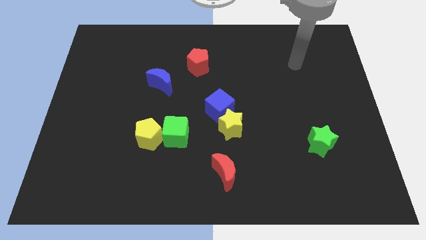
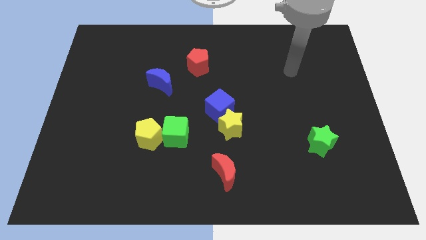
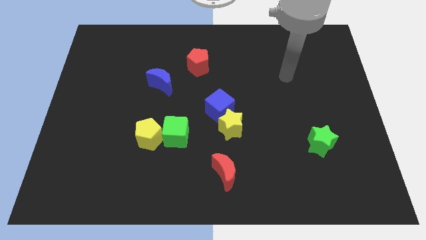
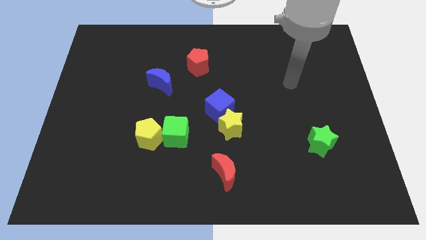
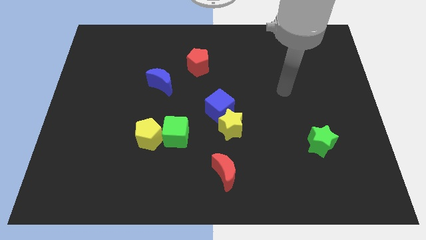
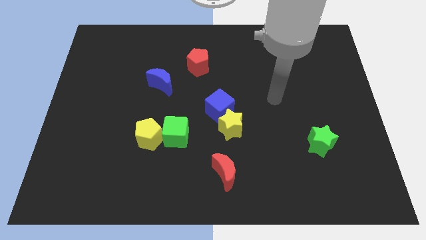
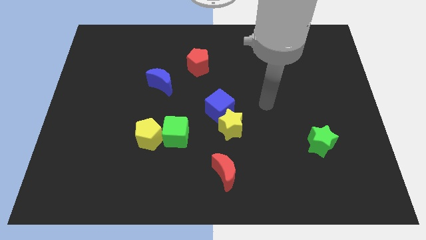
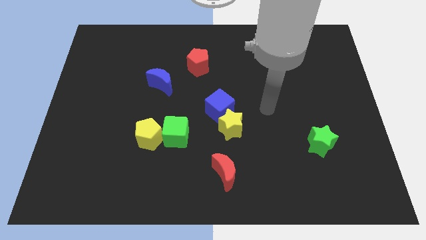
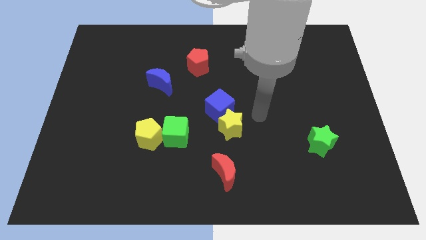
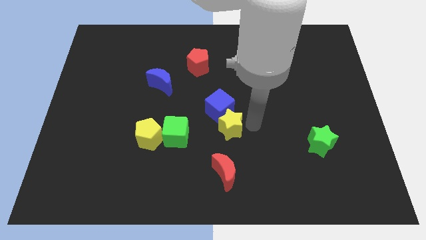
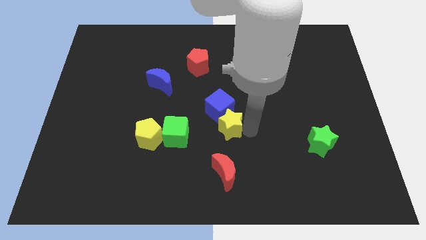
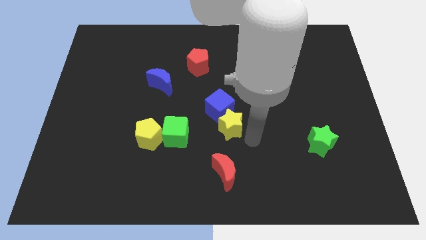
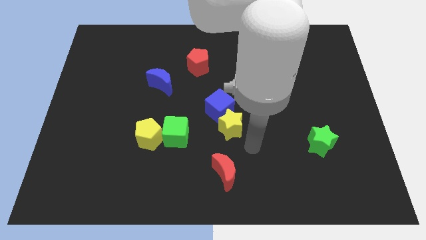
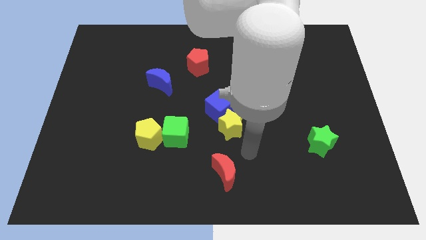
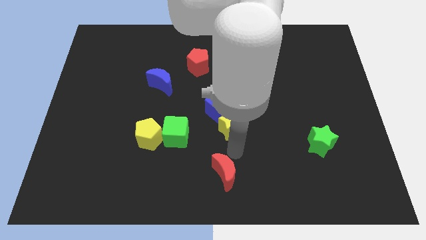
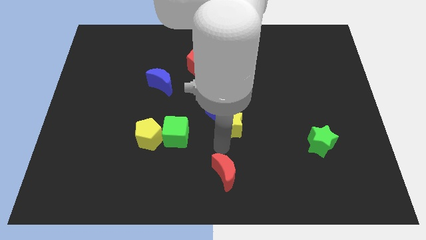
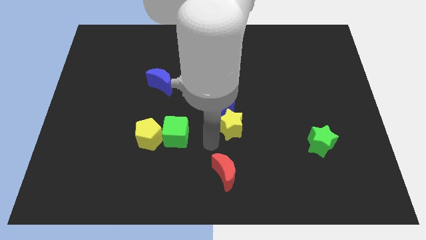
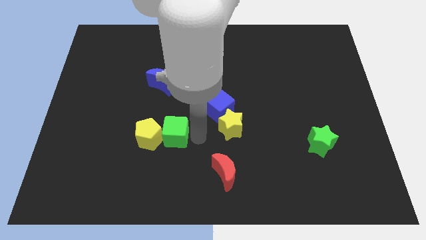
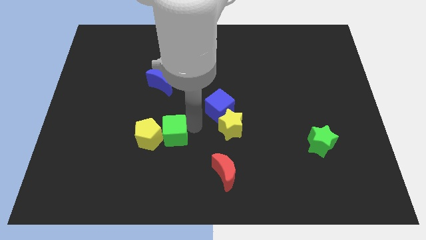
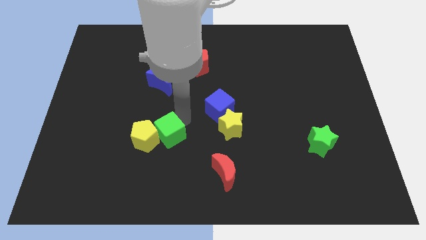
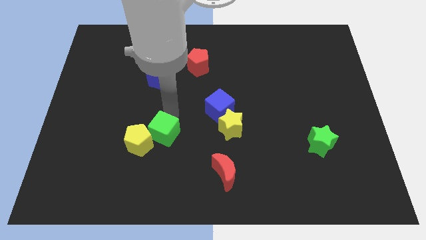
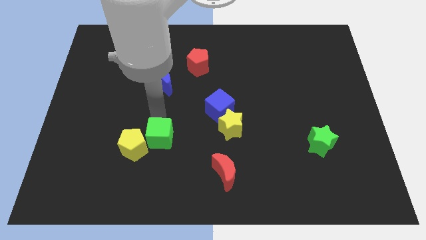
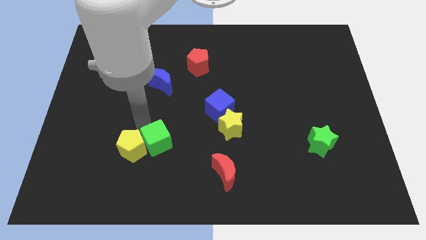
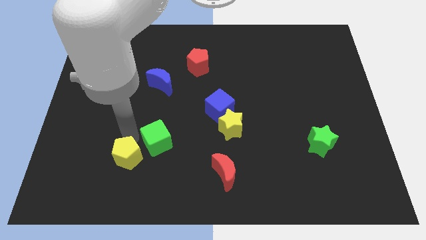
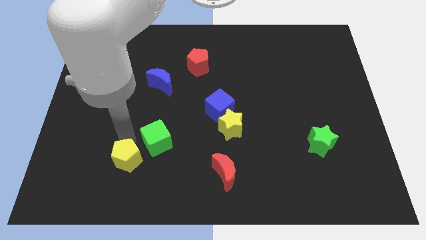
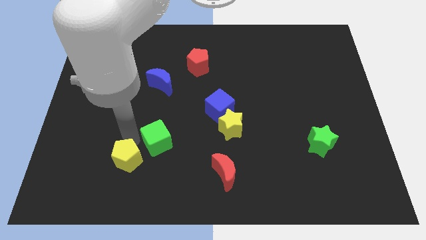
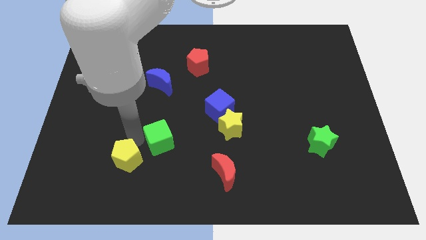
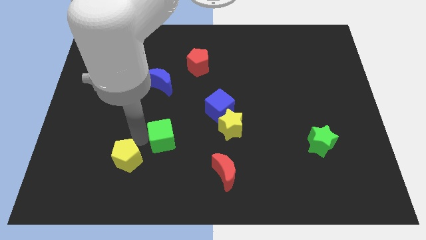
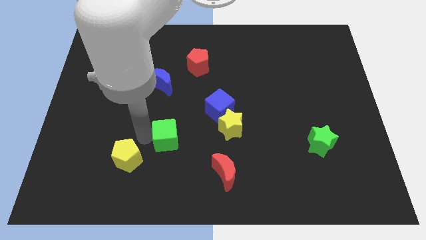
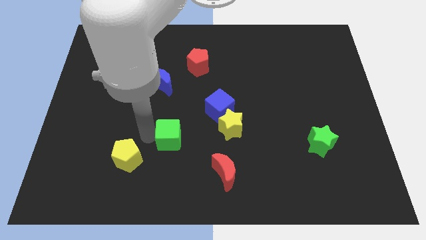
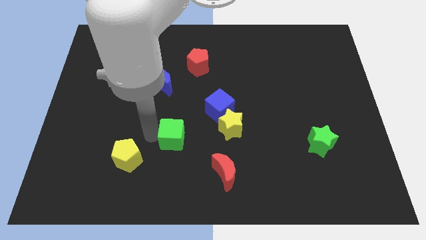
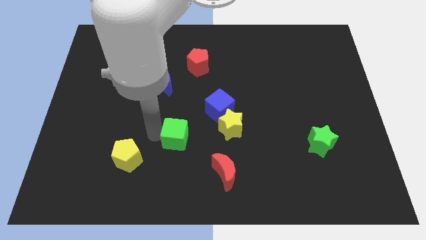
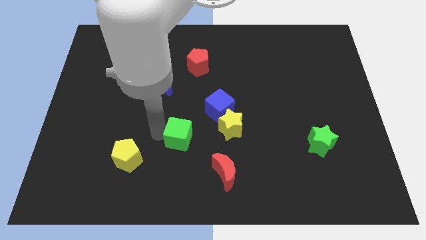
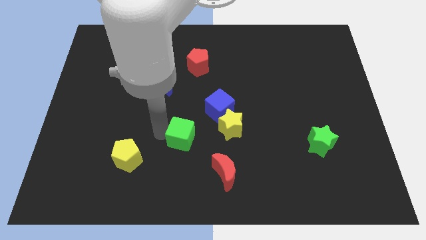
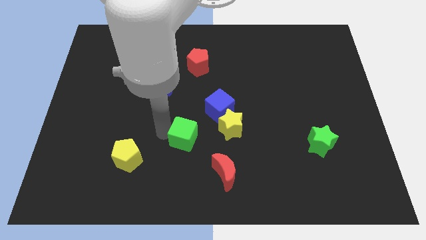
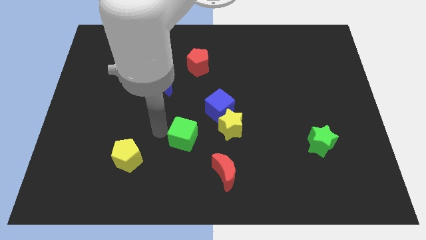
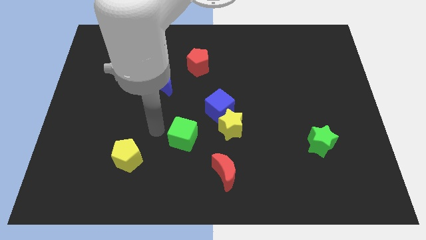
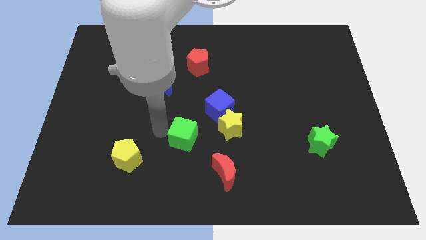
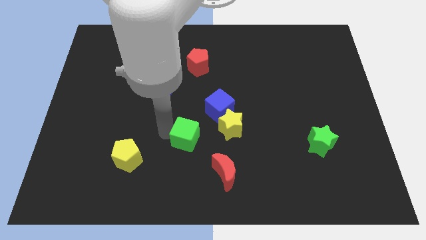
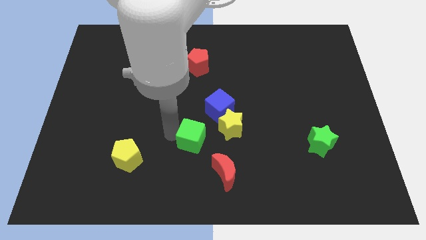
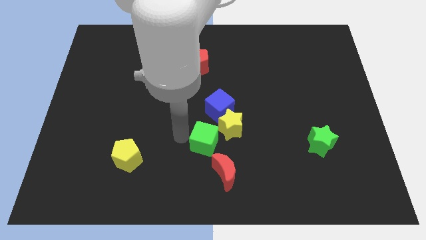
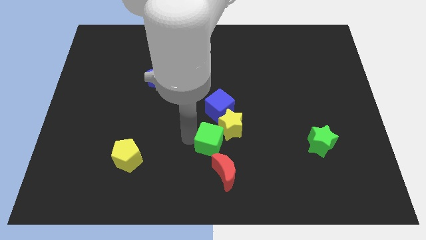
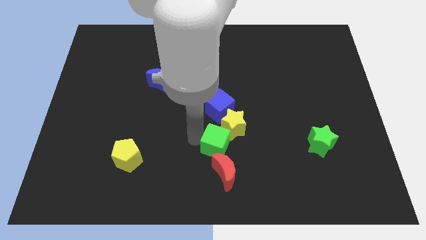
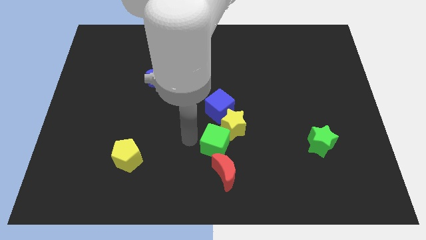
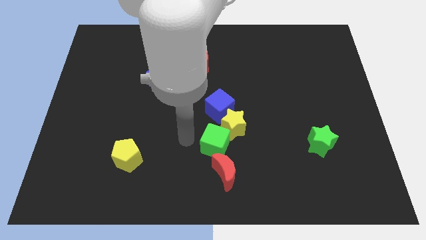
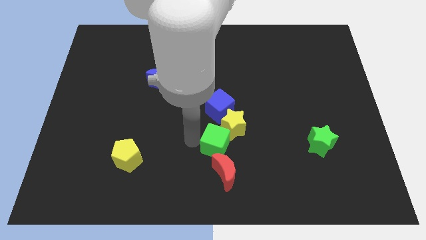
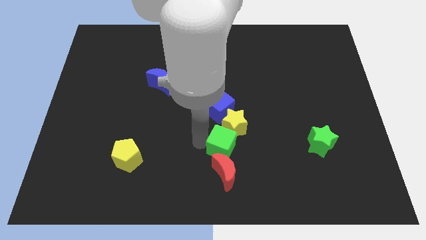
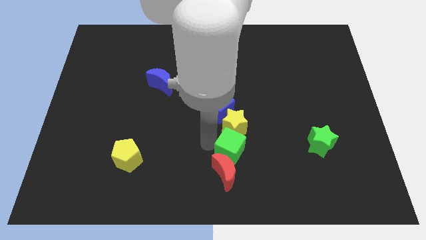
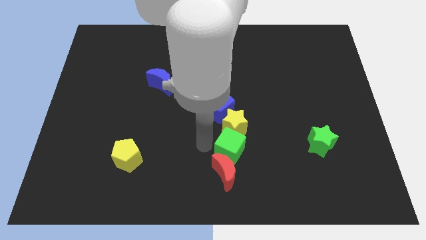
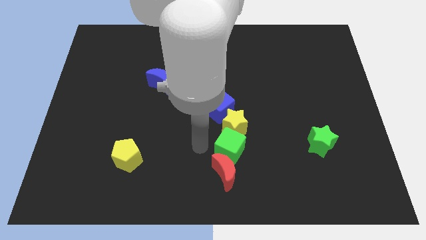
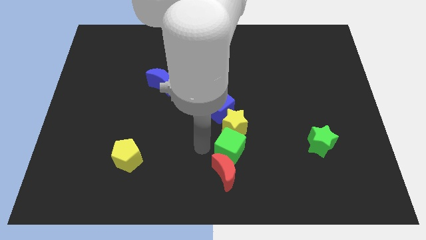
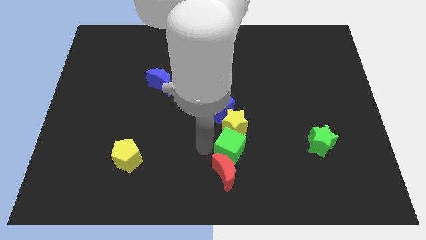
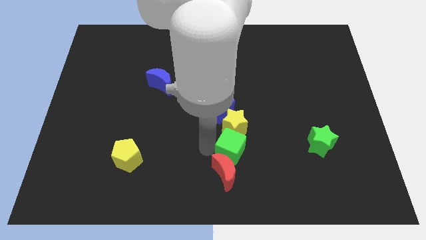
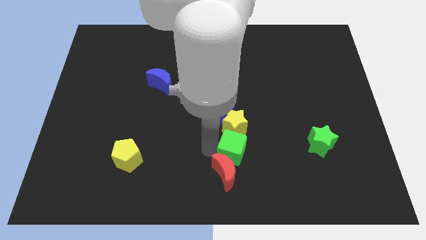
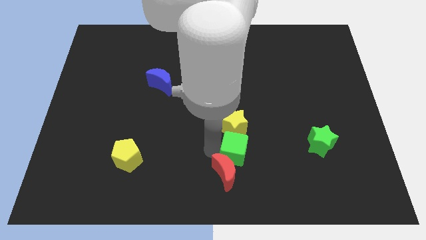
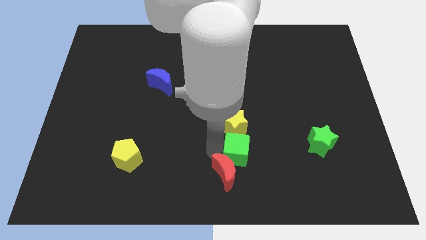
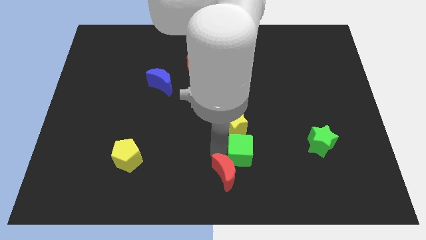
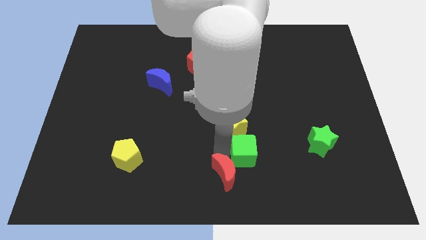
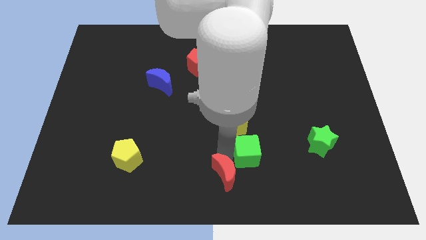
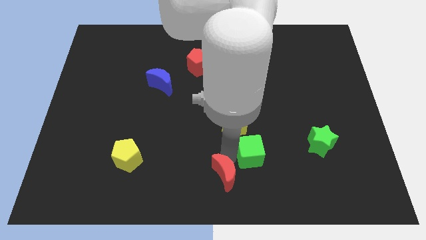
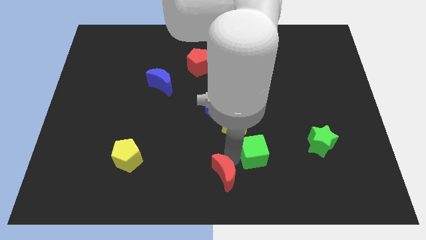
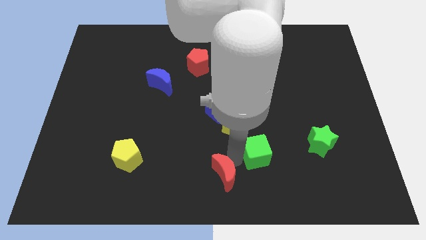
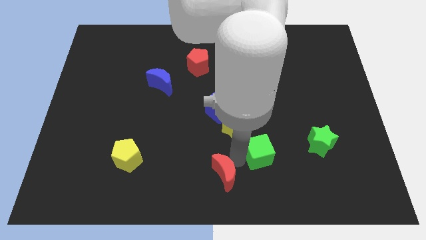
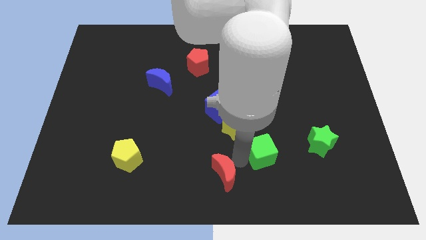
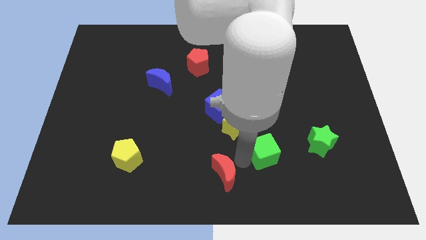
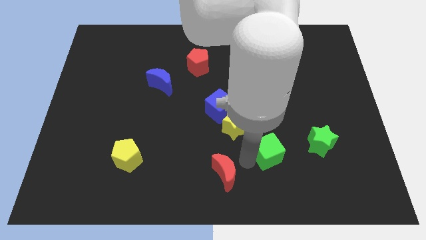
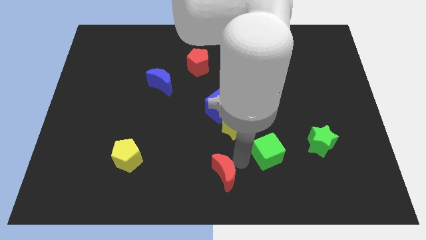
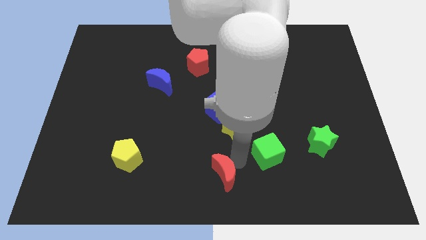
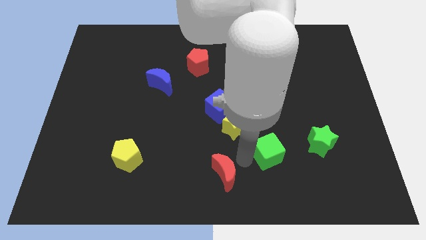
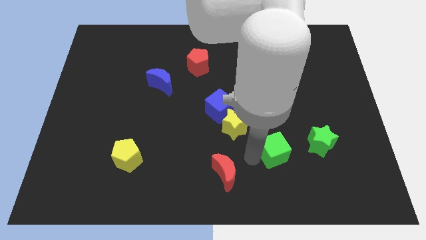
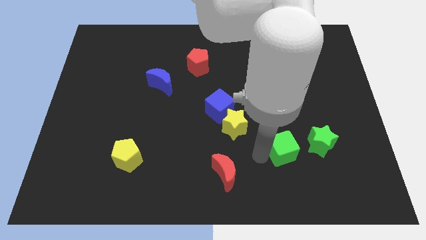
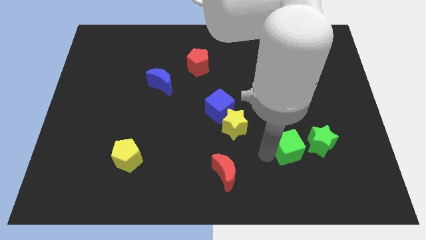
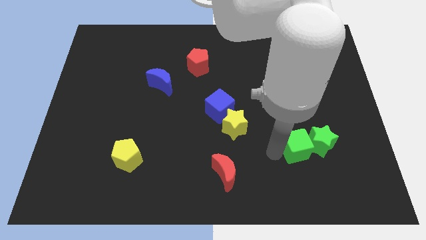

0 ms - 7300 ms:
slide the green cube close to the green star
